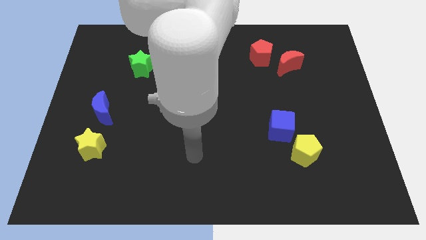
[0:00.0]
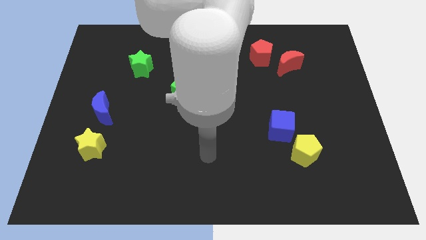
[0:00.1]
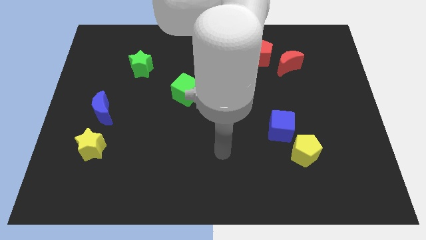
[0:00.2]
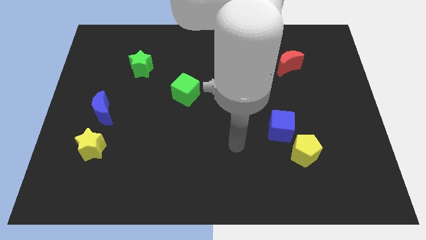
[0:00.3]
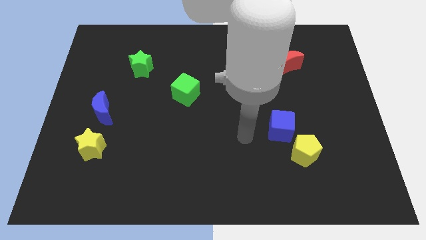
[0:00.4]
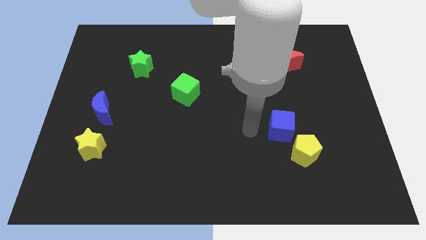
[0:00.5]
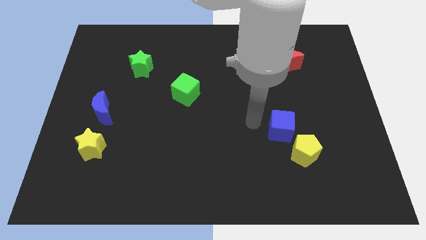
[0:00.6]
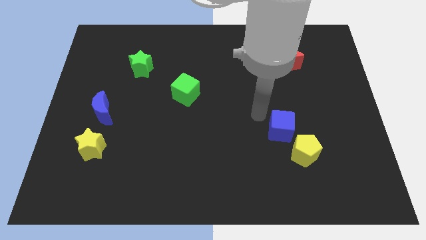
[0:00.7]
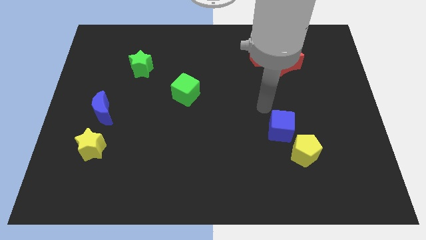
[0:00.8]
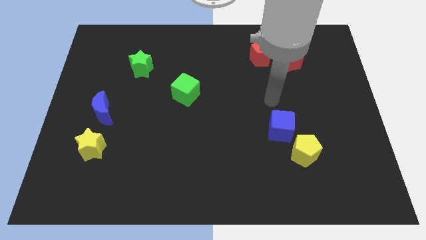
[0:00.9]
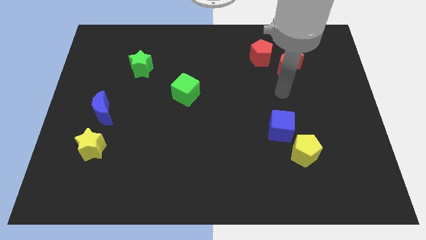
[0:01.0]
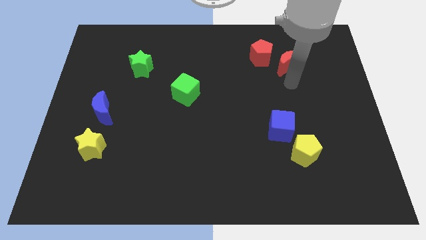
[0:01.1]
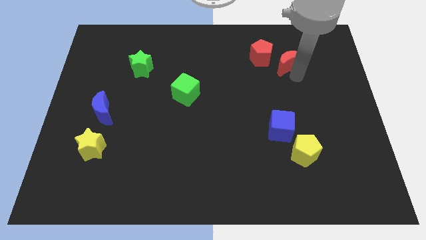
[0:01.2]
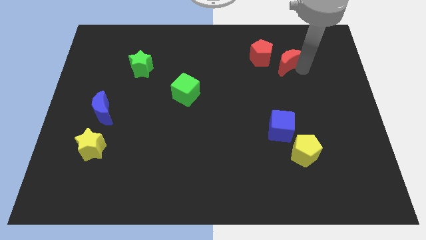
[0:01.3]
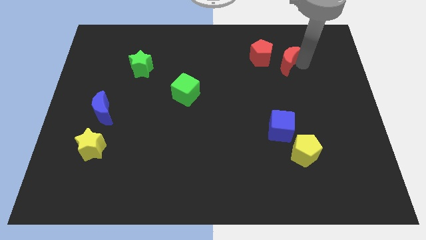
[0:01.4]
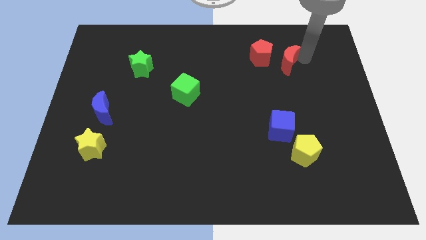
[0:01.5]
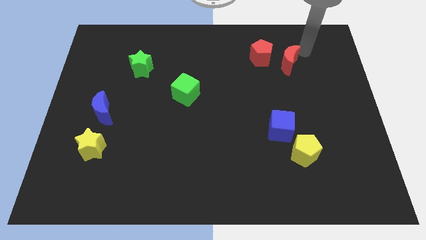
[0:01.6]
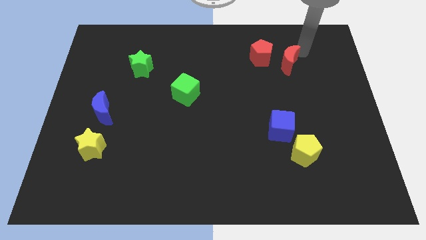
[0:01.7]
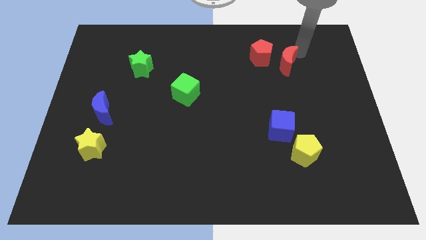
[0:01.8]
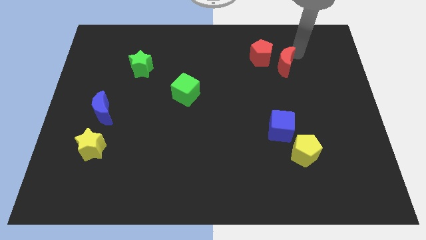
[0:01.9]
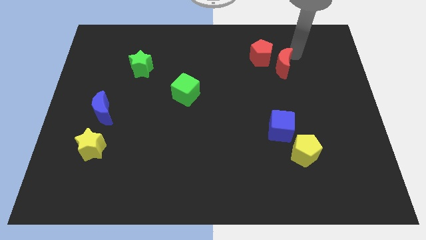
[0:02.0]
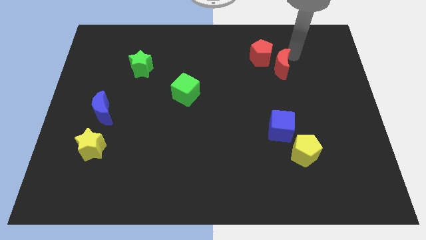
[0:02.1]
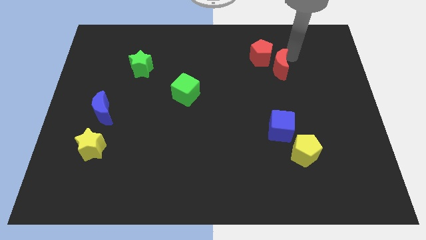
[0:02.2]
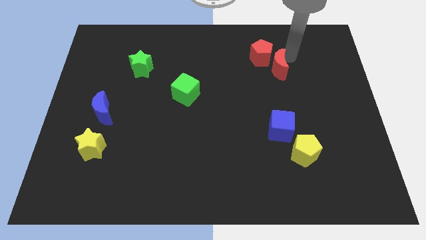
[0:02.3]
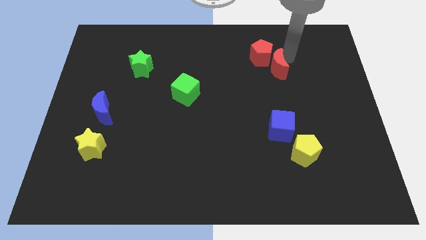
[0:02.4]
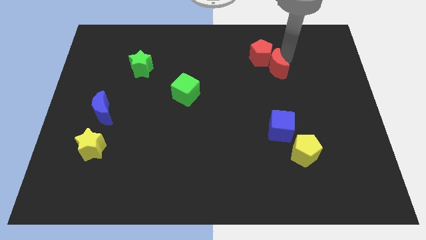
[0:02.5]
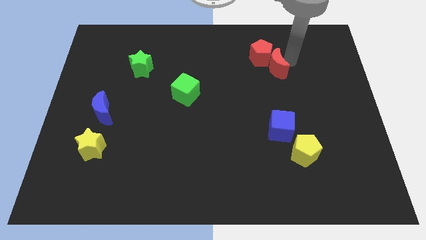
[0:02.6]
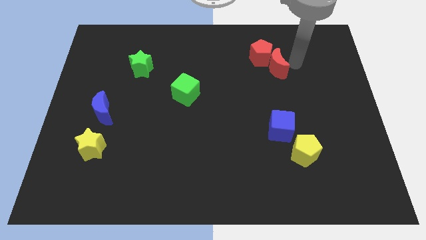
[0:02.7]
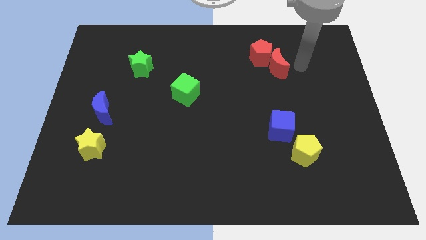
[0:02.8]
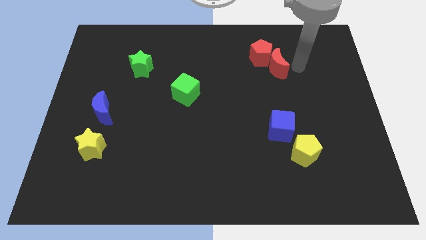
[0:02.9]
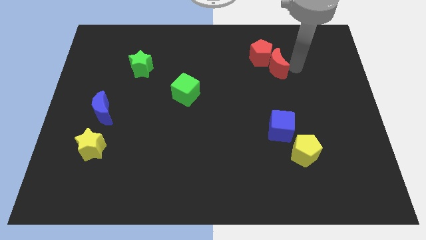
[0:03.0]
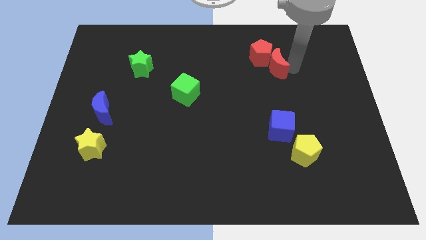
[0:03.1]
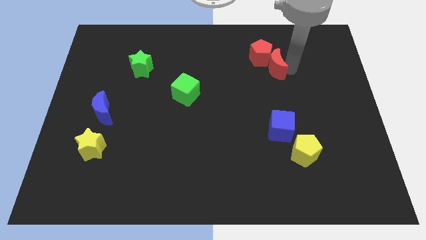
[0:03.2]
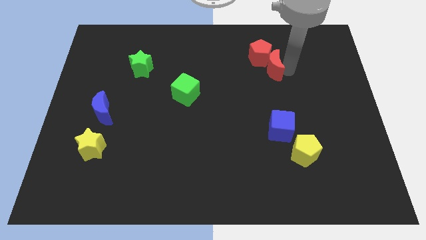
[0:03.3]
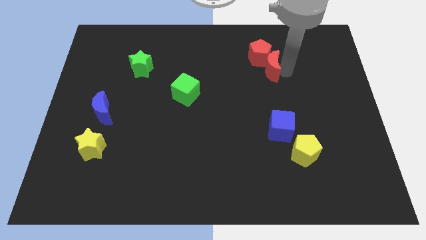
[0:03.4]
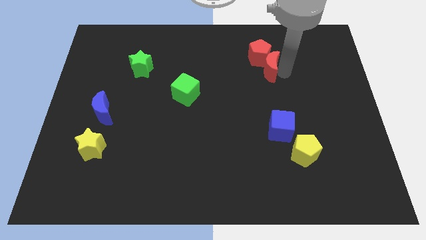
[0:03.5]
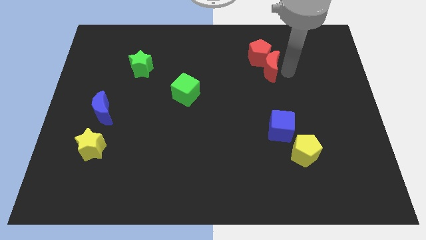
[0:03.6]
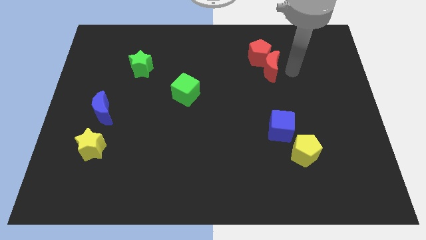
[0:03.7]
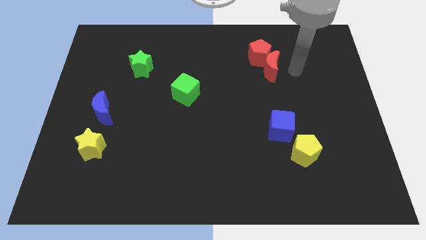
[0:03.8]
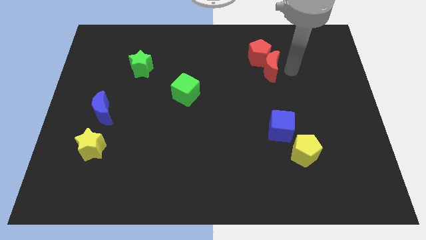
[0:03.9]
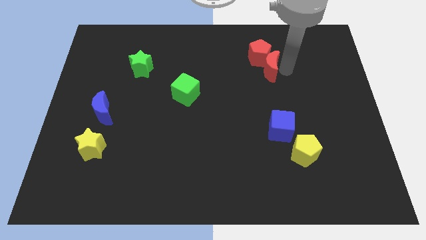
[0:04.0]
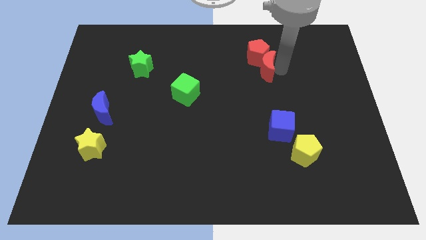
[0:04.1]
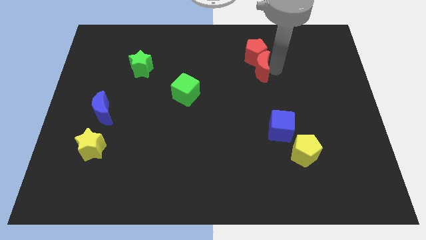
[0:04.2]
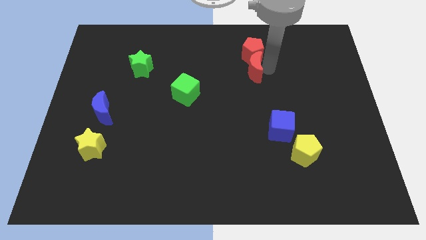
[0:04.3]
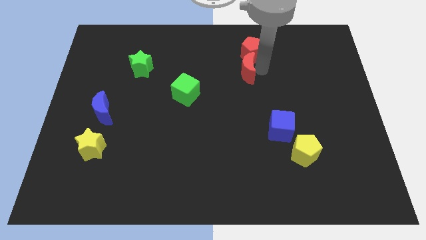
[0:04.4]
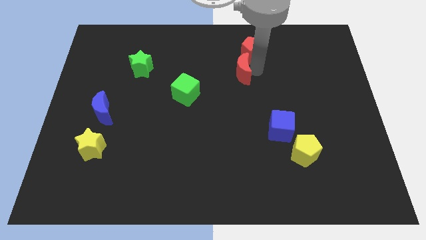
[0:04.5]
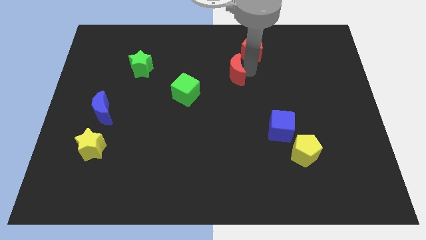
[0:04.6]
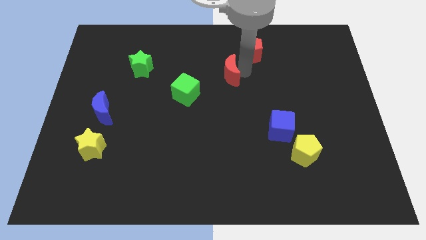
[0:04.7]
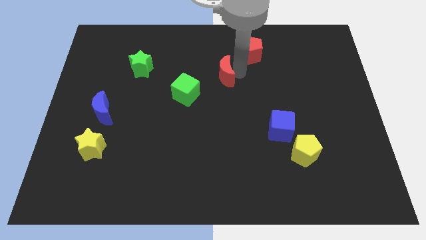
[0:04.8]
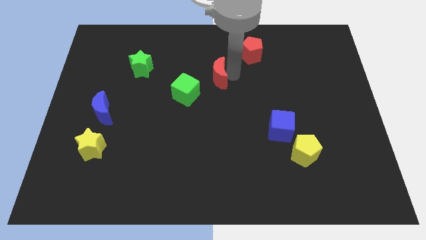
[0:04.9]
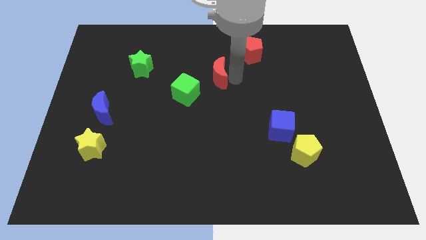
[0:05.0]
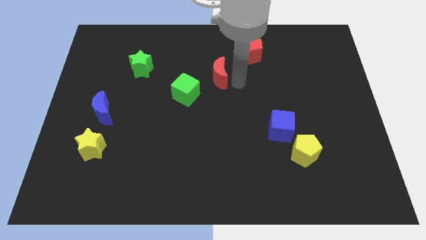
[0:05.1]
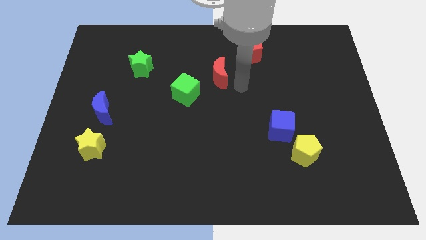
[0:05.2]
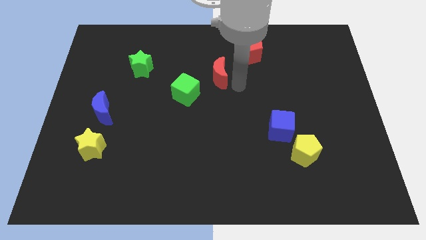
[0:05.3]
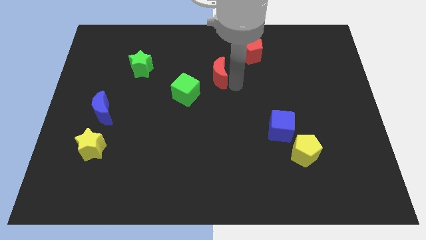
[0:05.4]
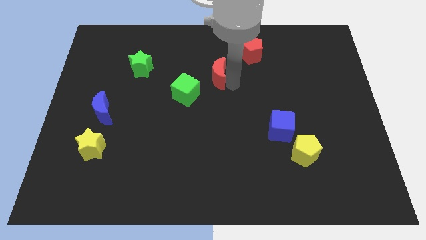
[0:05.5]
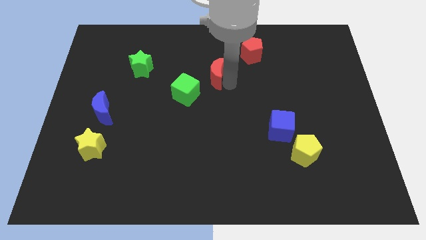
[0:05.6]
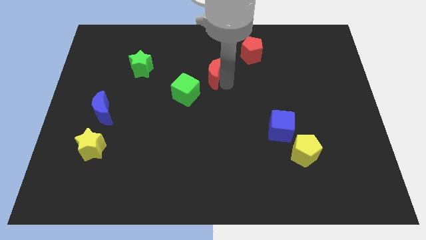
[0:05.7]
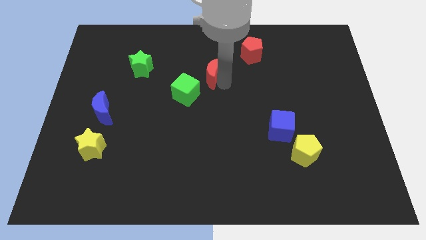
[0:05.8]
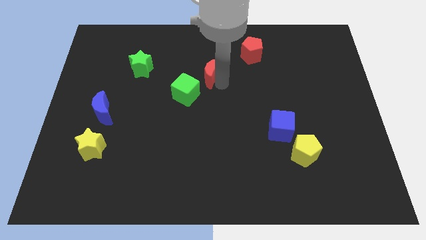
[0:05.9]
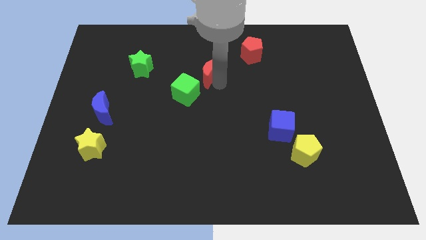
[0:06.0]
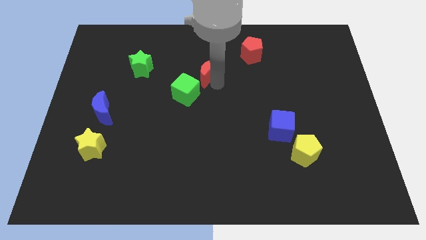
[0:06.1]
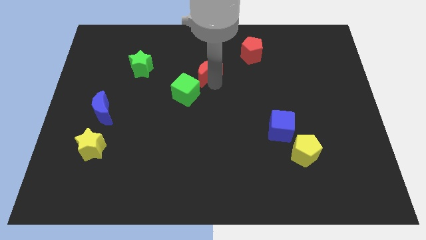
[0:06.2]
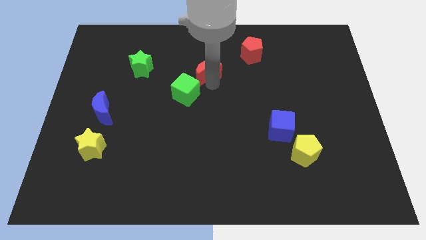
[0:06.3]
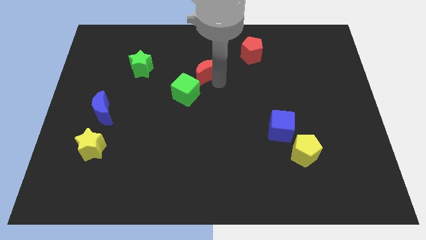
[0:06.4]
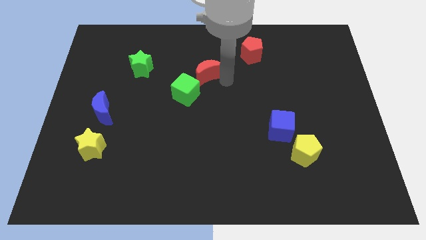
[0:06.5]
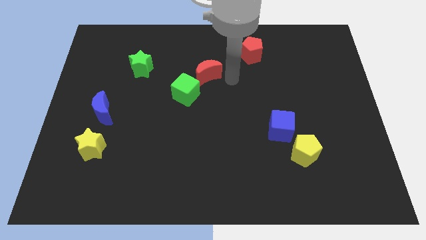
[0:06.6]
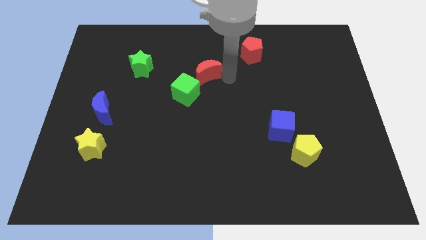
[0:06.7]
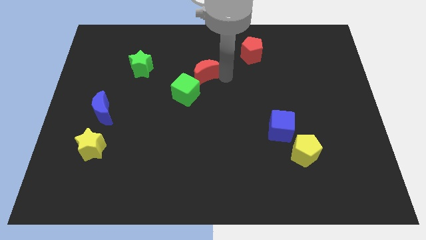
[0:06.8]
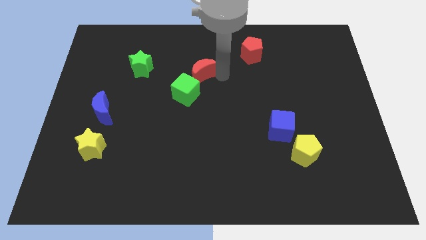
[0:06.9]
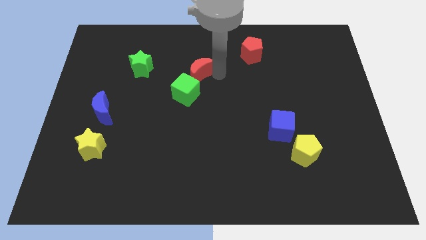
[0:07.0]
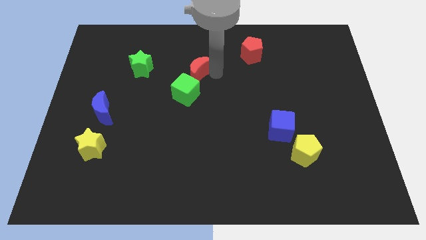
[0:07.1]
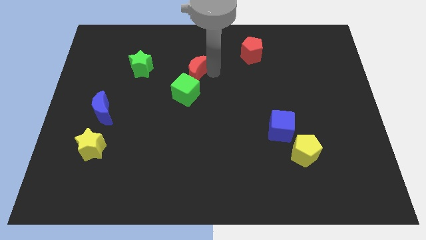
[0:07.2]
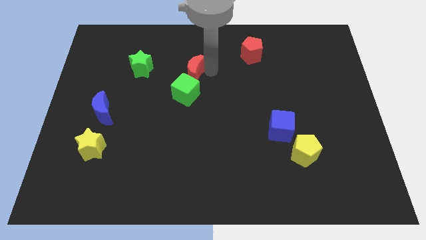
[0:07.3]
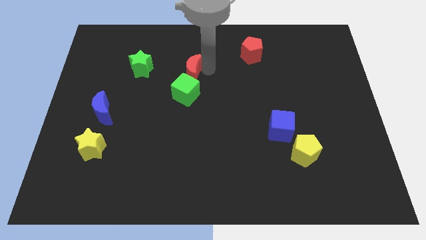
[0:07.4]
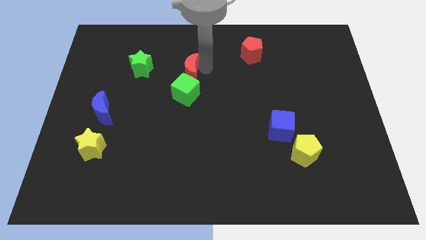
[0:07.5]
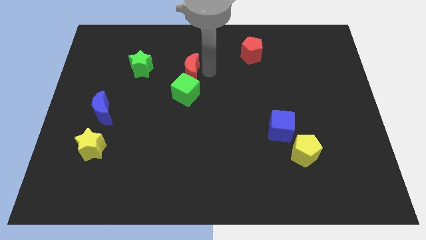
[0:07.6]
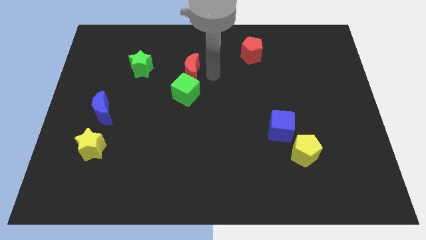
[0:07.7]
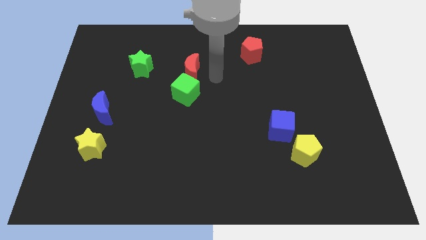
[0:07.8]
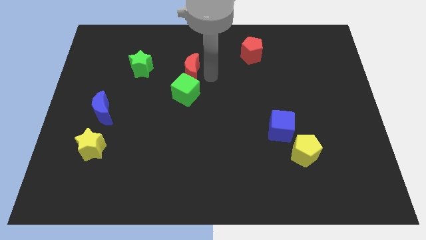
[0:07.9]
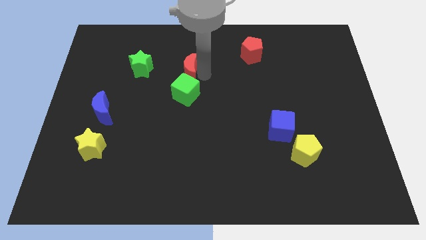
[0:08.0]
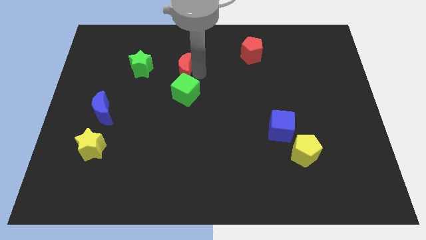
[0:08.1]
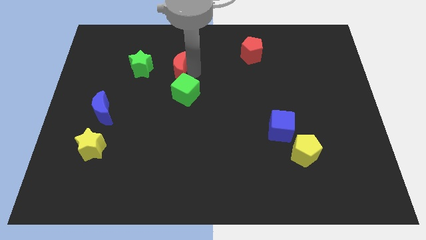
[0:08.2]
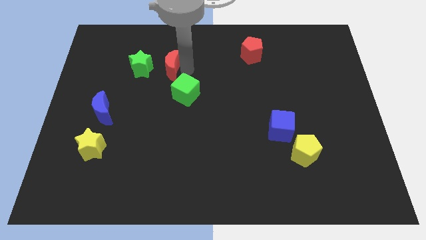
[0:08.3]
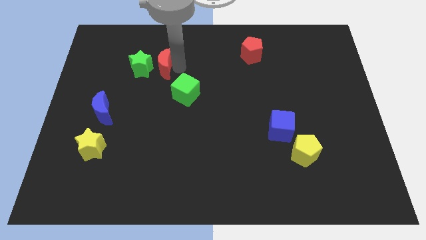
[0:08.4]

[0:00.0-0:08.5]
push the red moon close to the green star
